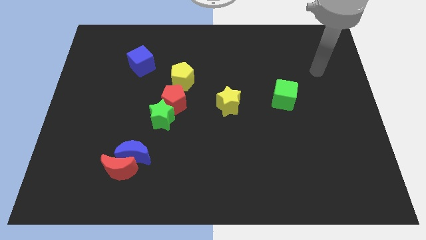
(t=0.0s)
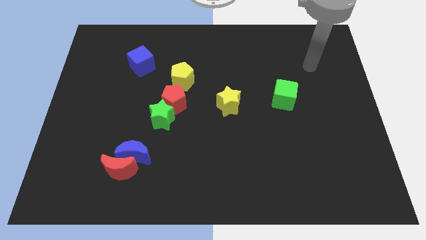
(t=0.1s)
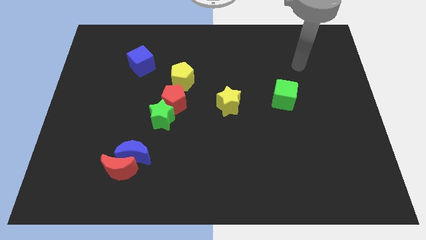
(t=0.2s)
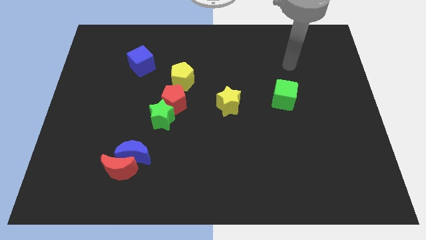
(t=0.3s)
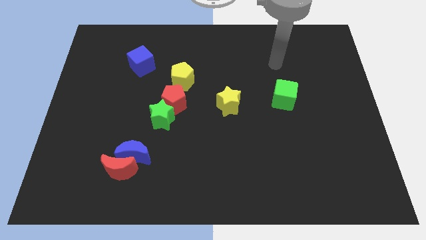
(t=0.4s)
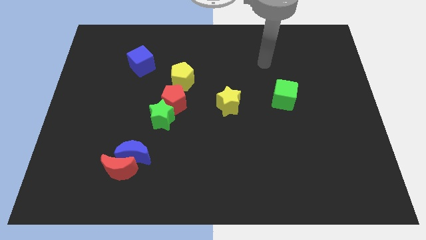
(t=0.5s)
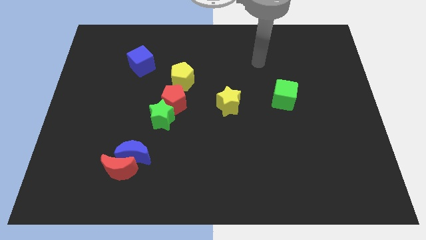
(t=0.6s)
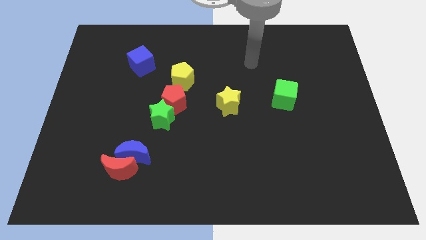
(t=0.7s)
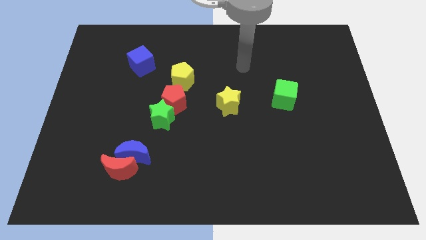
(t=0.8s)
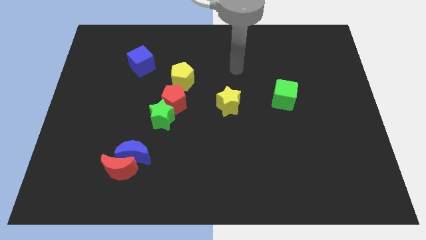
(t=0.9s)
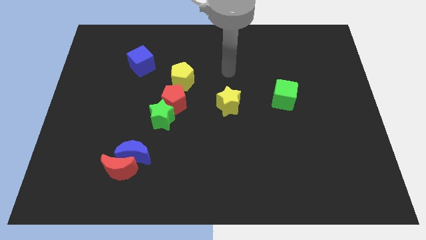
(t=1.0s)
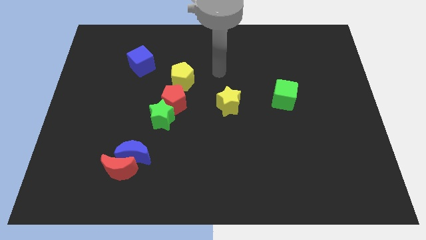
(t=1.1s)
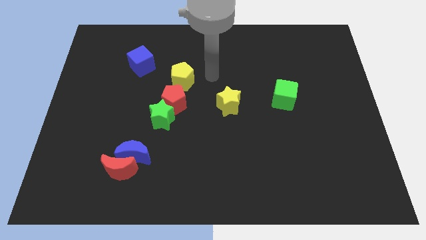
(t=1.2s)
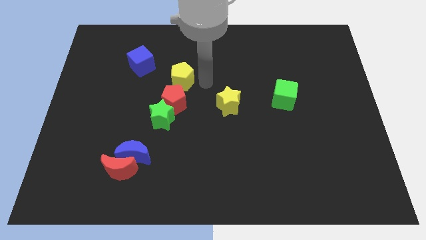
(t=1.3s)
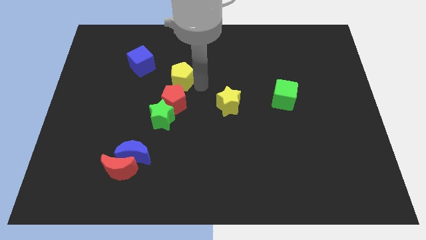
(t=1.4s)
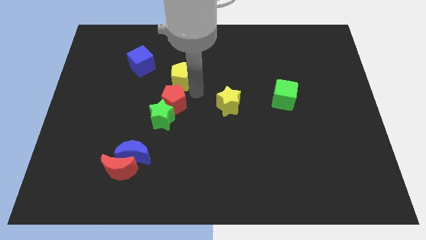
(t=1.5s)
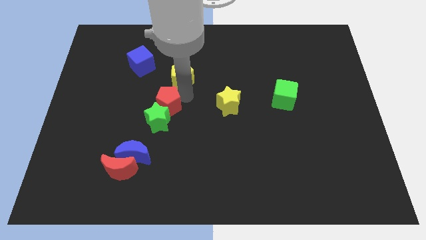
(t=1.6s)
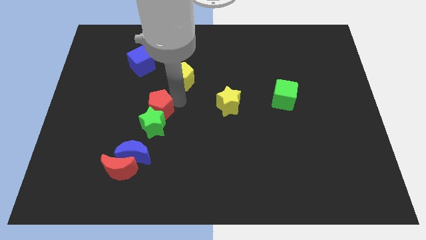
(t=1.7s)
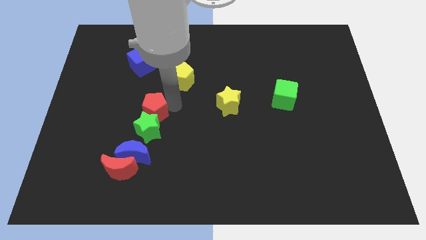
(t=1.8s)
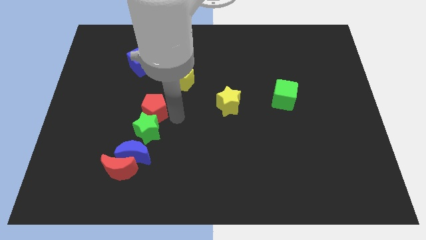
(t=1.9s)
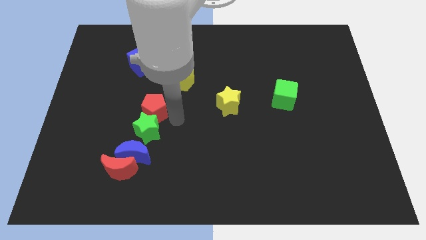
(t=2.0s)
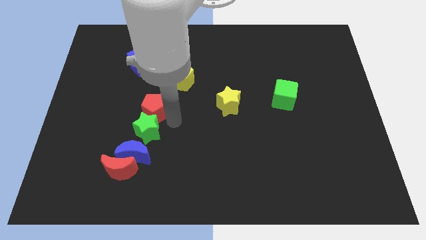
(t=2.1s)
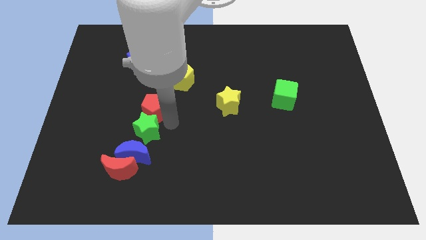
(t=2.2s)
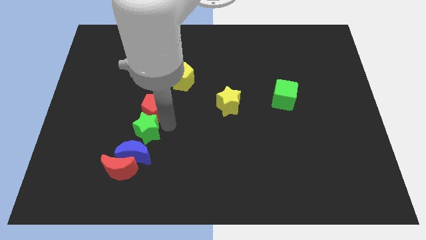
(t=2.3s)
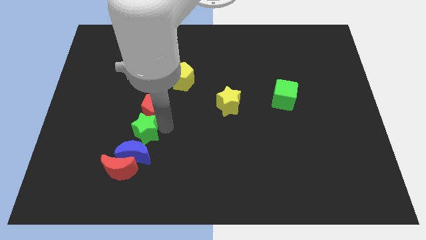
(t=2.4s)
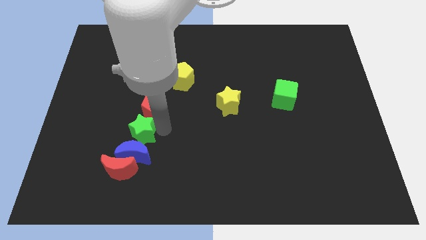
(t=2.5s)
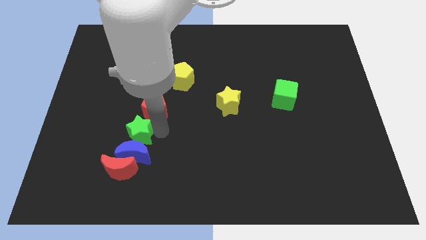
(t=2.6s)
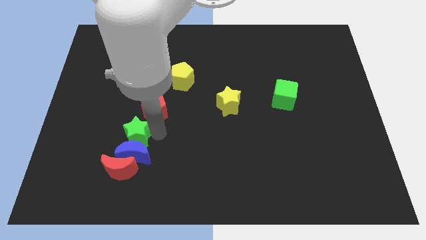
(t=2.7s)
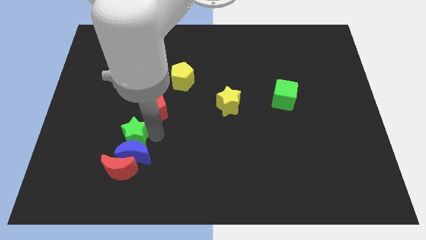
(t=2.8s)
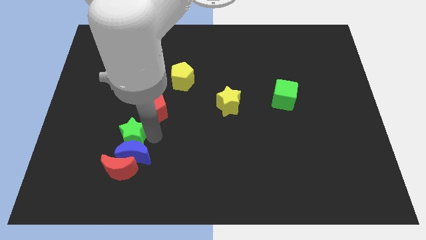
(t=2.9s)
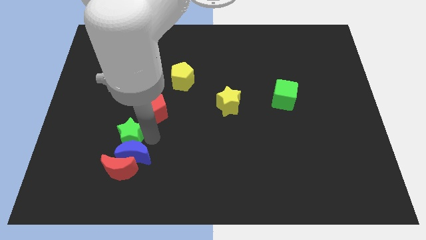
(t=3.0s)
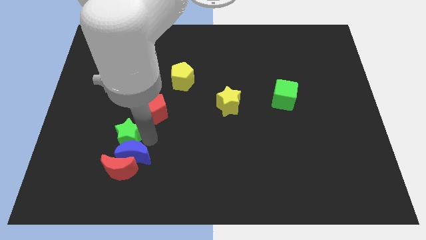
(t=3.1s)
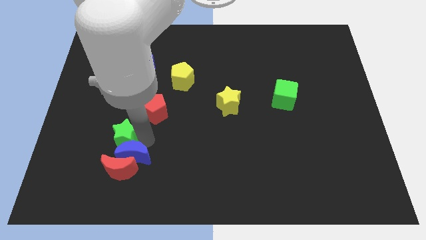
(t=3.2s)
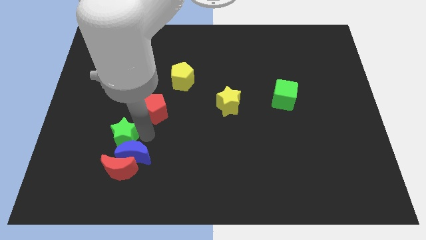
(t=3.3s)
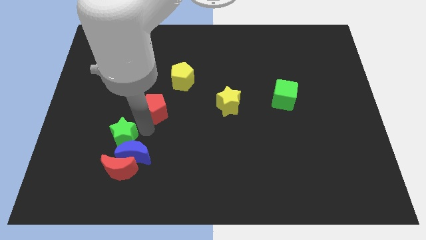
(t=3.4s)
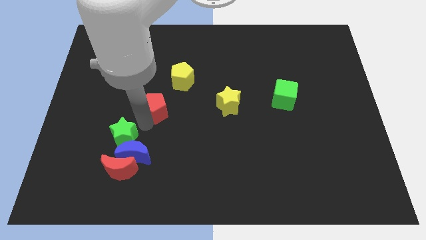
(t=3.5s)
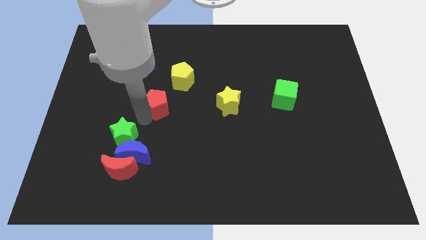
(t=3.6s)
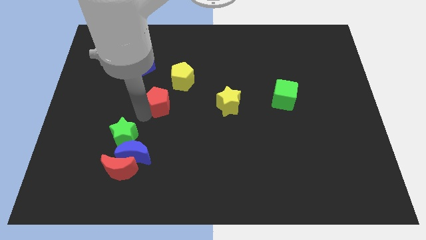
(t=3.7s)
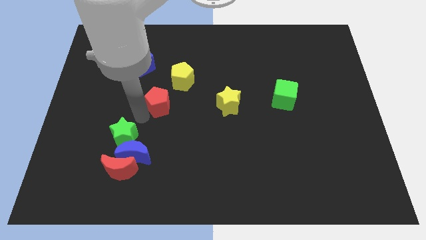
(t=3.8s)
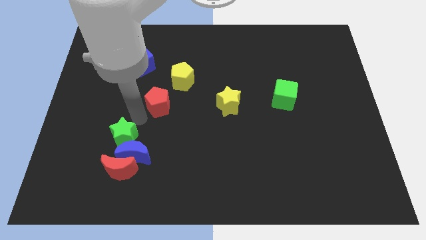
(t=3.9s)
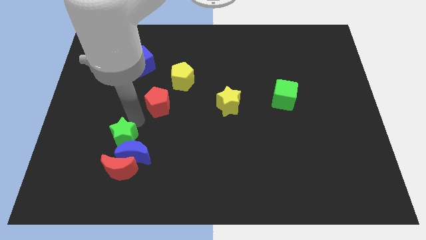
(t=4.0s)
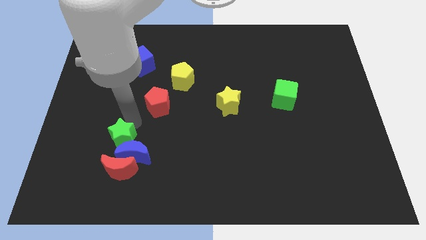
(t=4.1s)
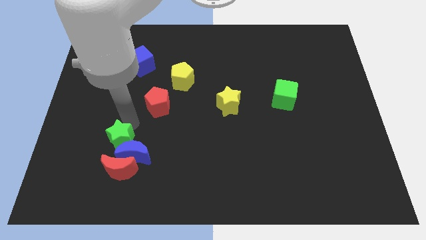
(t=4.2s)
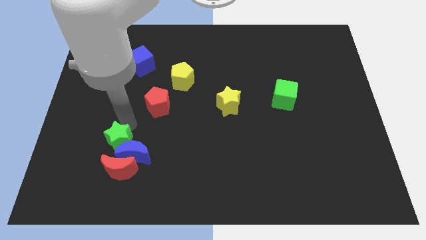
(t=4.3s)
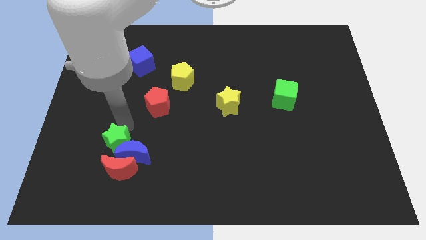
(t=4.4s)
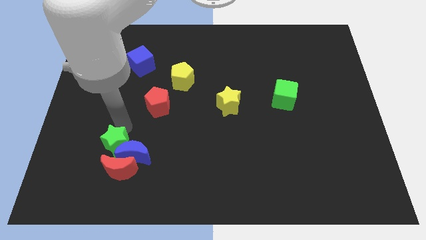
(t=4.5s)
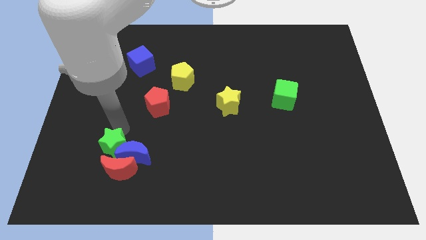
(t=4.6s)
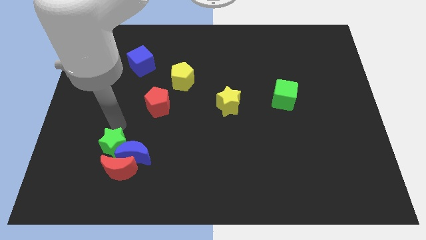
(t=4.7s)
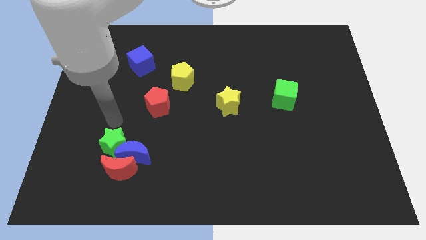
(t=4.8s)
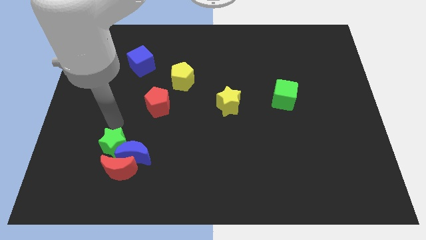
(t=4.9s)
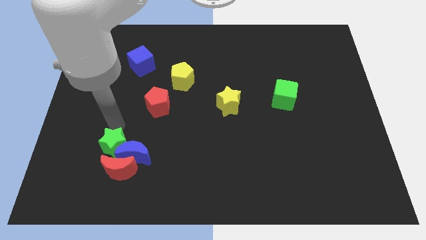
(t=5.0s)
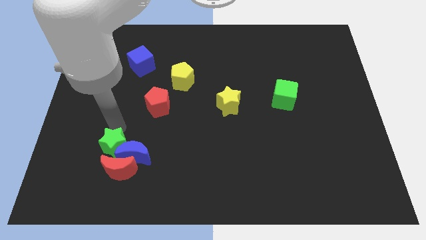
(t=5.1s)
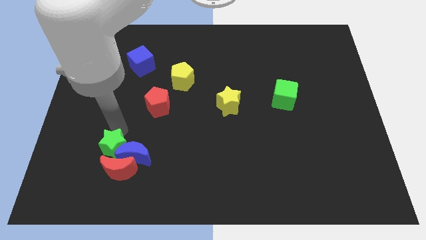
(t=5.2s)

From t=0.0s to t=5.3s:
slide the green star next to the red moon

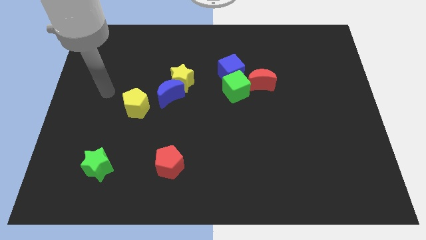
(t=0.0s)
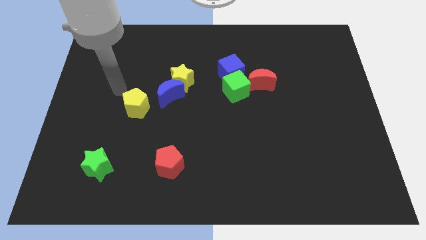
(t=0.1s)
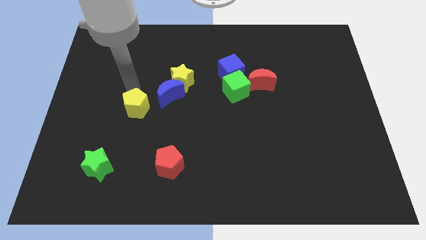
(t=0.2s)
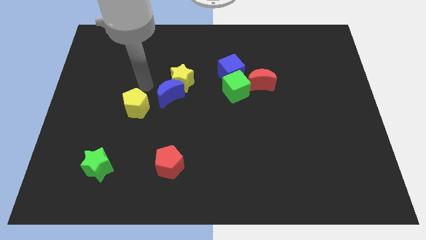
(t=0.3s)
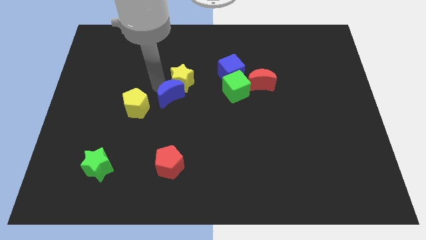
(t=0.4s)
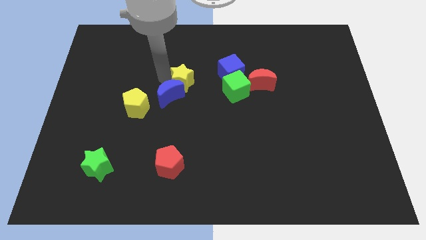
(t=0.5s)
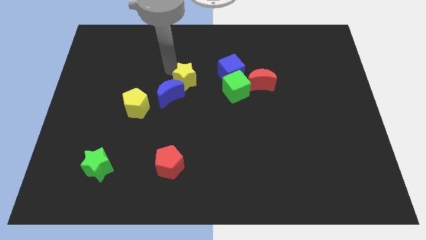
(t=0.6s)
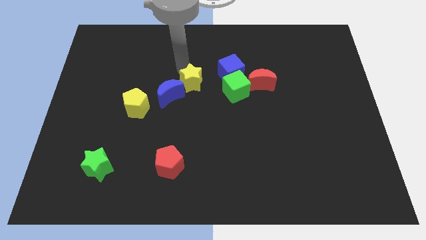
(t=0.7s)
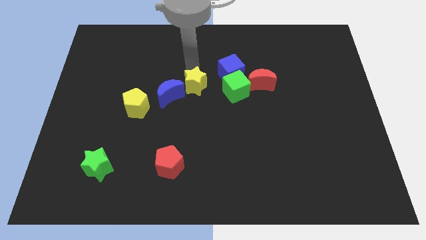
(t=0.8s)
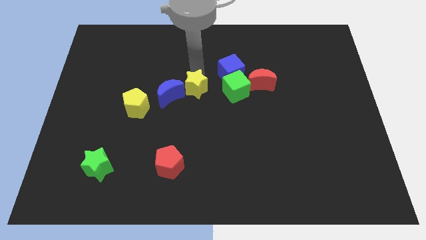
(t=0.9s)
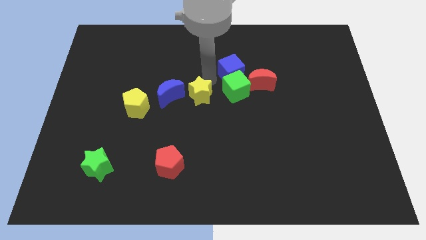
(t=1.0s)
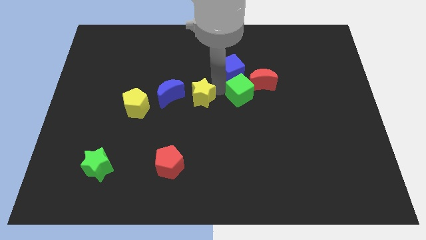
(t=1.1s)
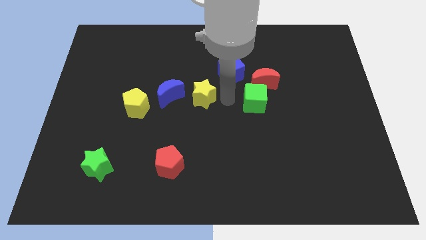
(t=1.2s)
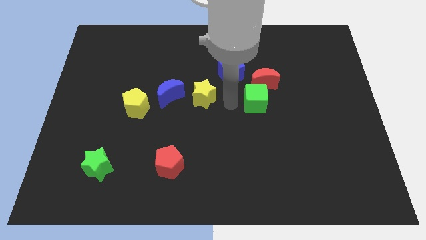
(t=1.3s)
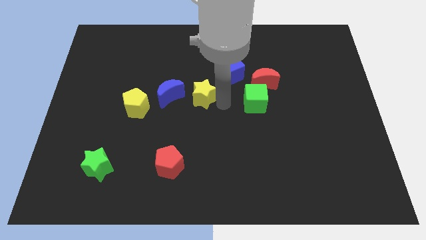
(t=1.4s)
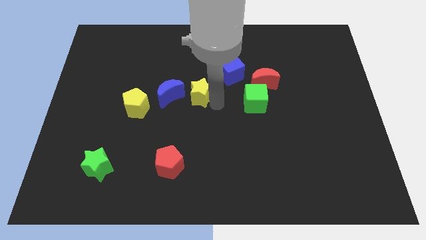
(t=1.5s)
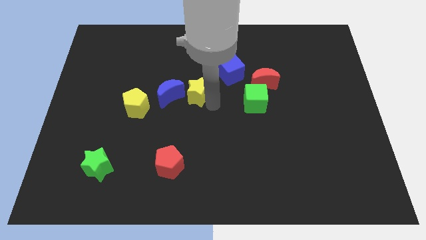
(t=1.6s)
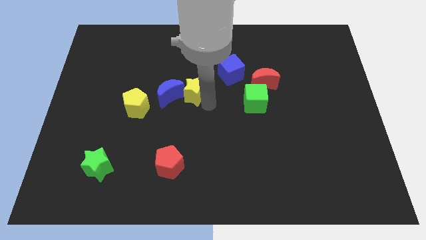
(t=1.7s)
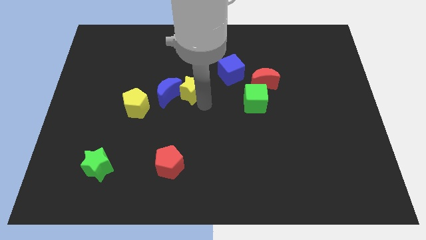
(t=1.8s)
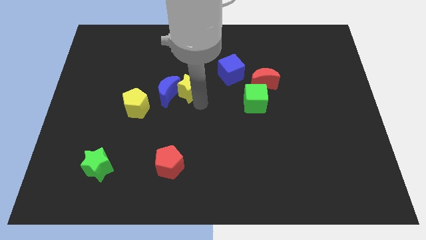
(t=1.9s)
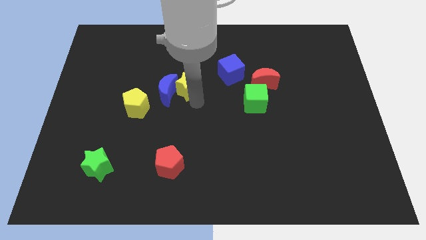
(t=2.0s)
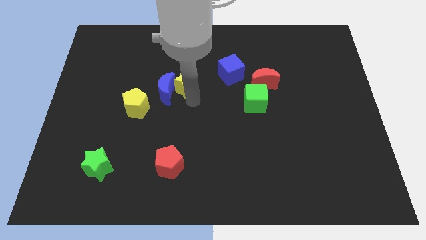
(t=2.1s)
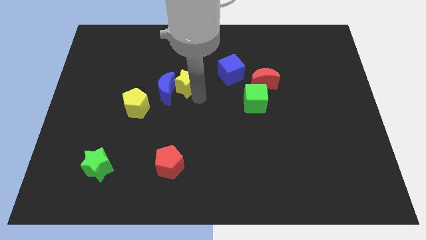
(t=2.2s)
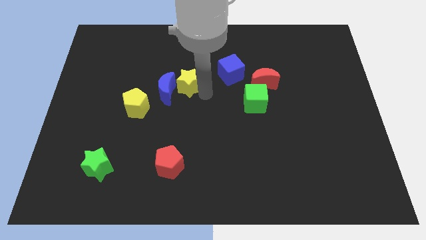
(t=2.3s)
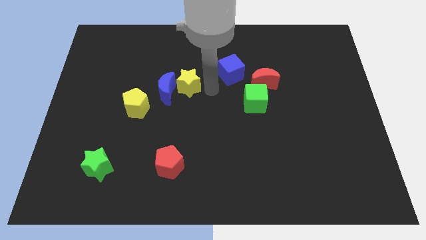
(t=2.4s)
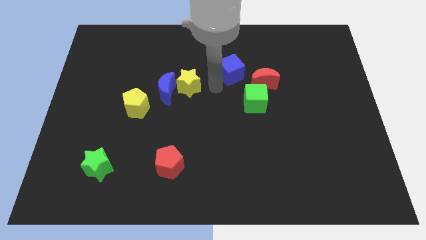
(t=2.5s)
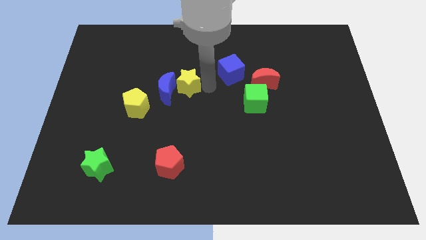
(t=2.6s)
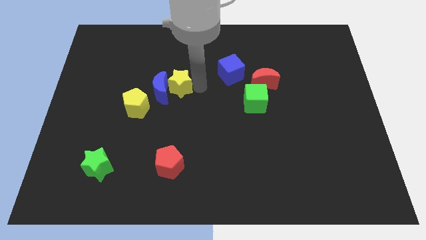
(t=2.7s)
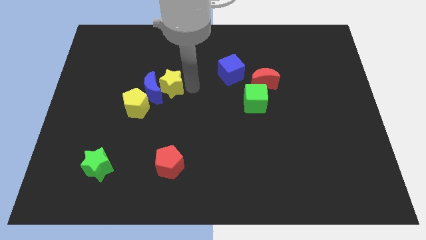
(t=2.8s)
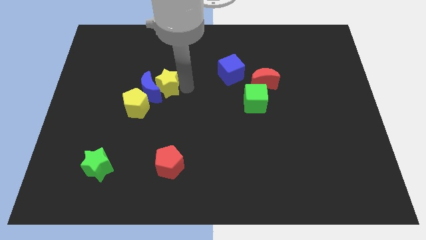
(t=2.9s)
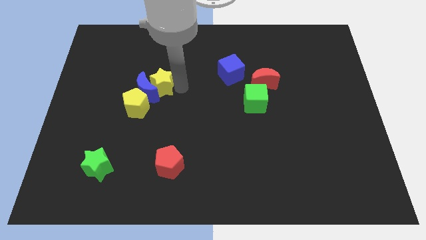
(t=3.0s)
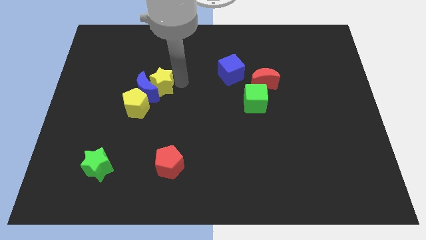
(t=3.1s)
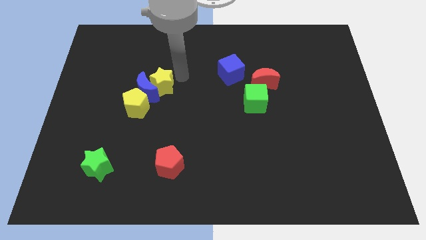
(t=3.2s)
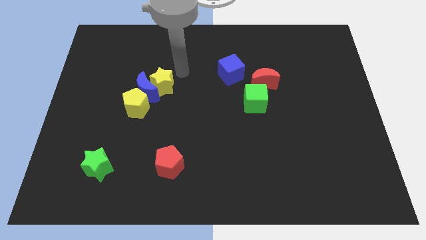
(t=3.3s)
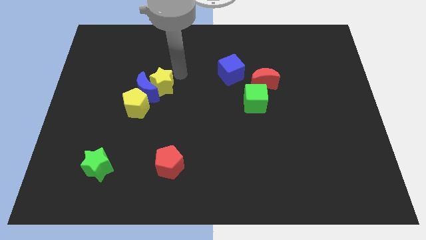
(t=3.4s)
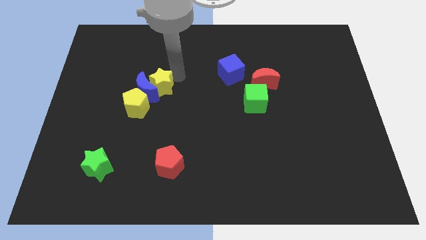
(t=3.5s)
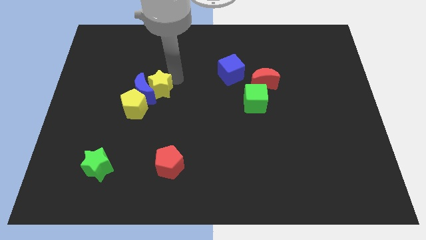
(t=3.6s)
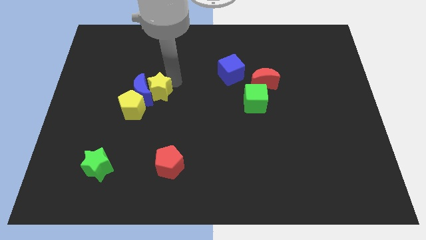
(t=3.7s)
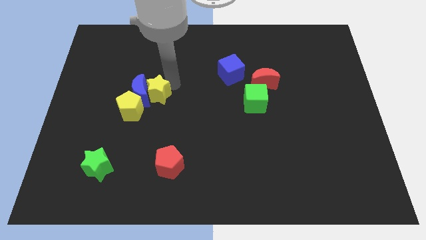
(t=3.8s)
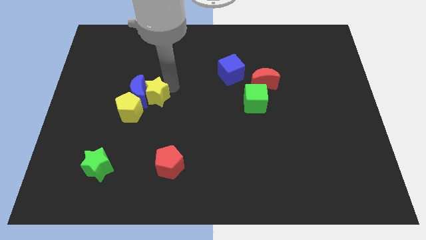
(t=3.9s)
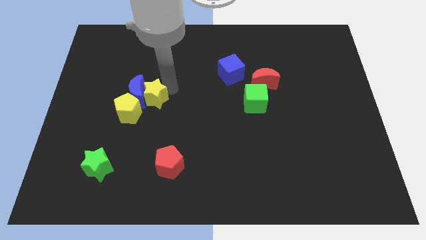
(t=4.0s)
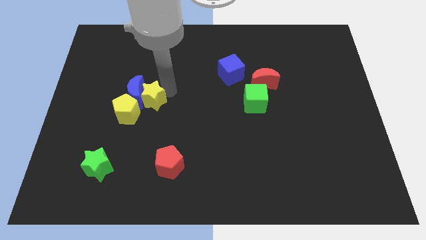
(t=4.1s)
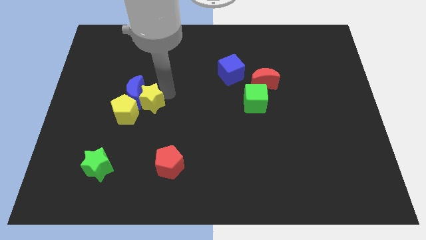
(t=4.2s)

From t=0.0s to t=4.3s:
put the yellow star close to the yellow pentagon
